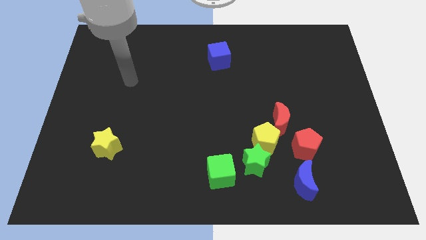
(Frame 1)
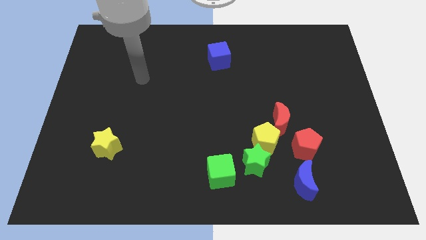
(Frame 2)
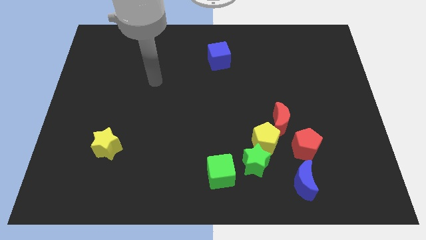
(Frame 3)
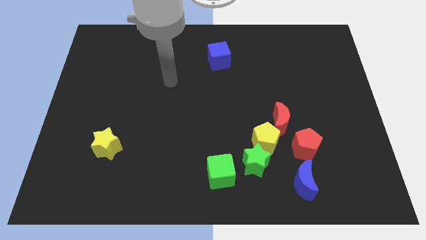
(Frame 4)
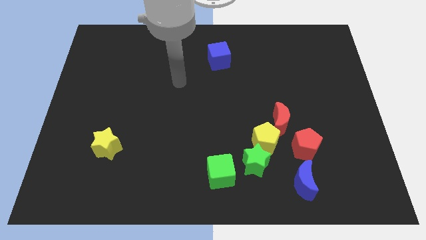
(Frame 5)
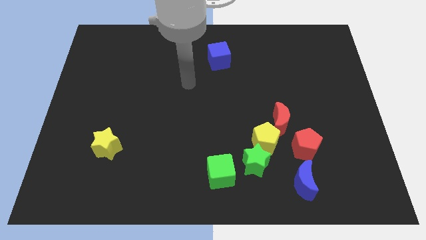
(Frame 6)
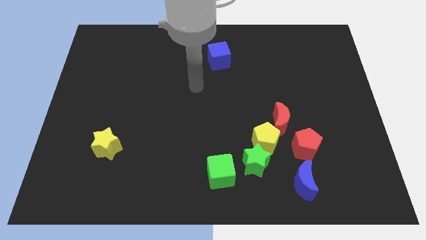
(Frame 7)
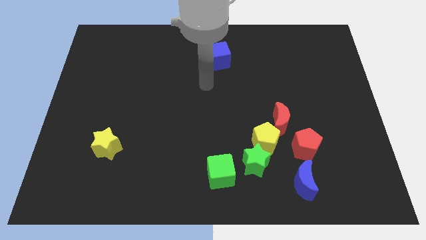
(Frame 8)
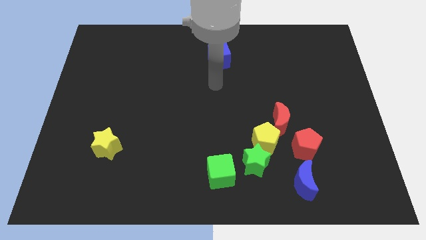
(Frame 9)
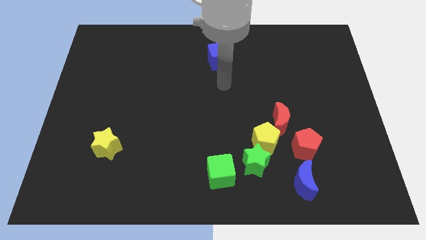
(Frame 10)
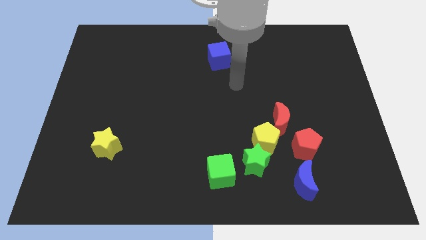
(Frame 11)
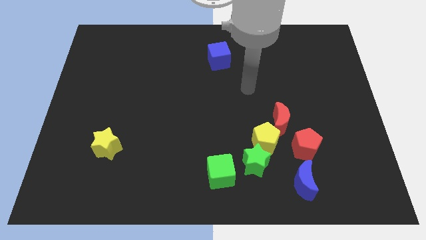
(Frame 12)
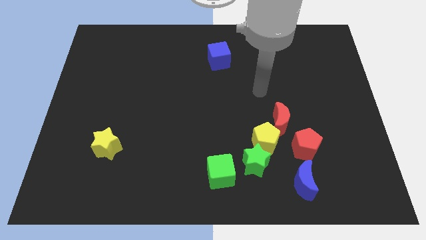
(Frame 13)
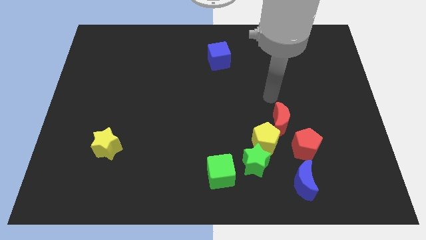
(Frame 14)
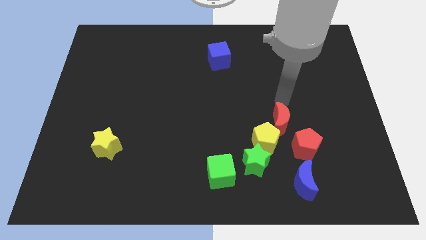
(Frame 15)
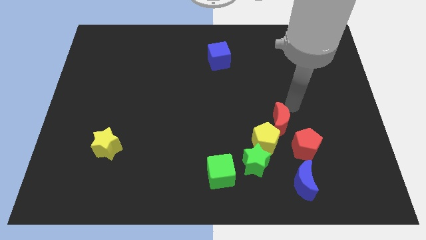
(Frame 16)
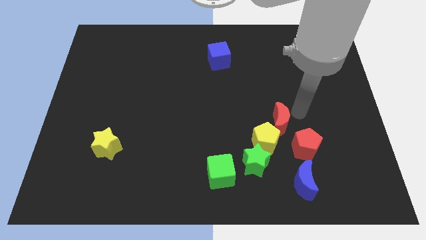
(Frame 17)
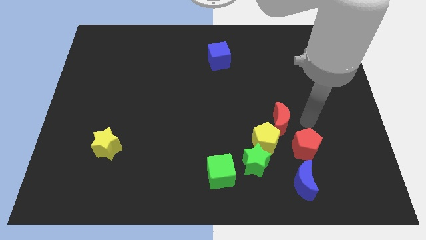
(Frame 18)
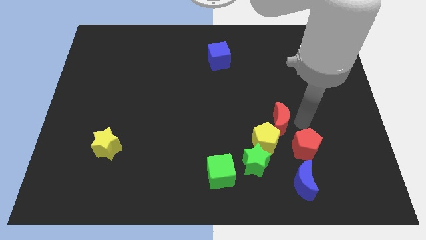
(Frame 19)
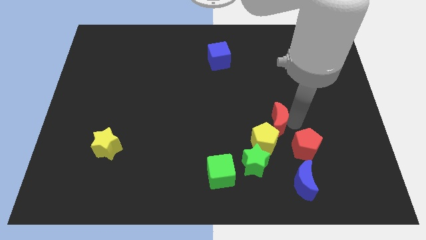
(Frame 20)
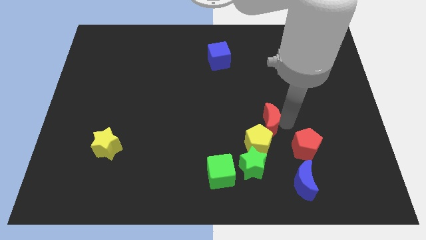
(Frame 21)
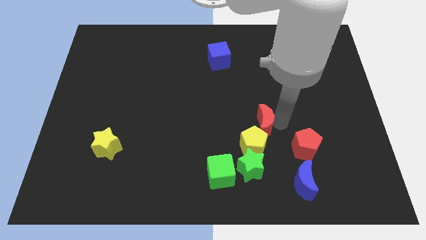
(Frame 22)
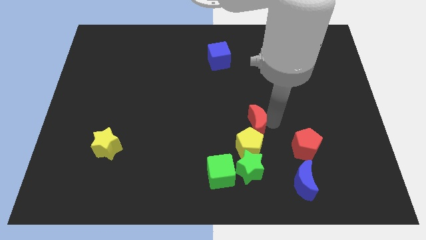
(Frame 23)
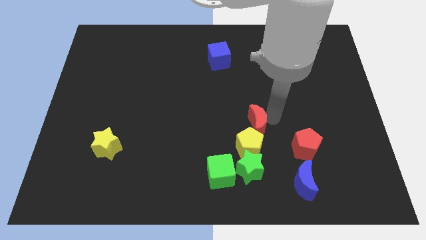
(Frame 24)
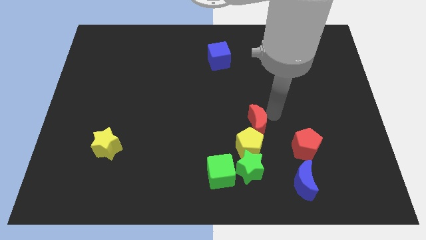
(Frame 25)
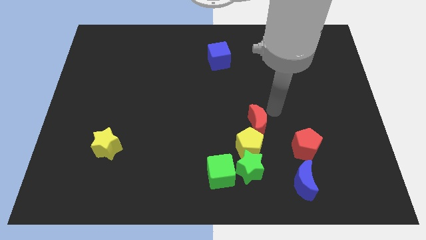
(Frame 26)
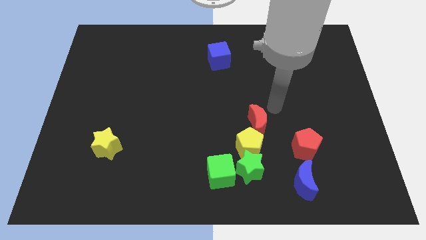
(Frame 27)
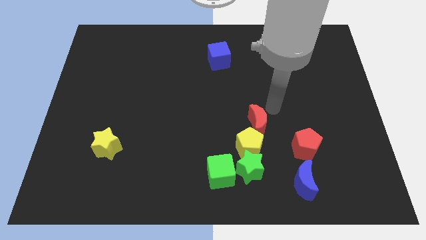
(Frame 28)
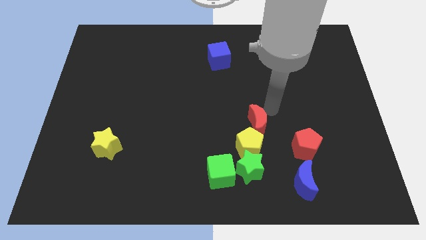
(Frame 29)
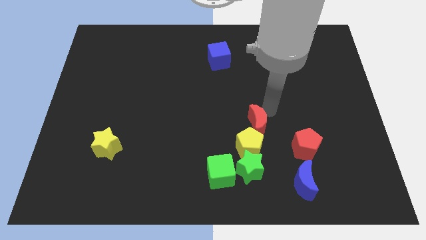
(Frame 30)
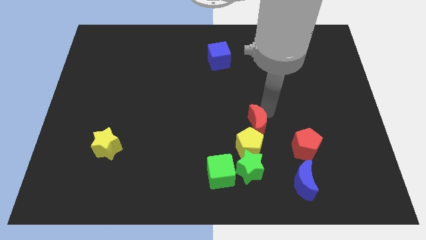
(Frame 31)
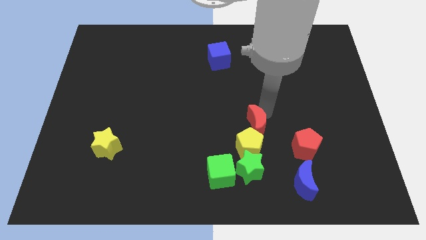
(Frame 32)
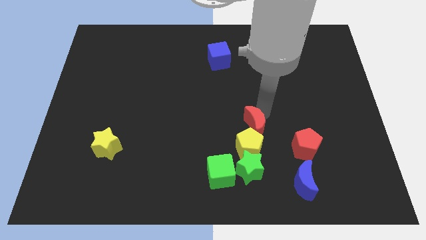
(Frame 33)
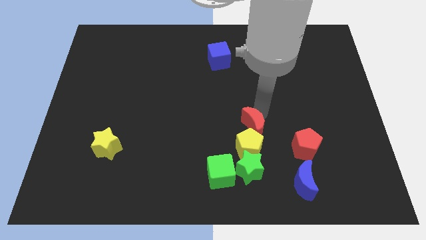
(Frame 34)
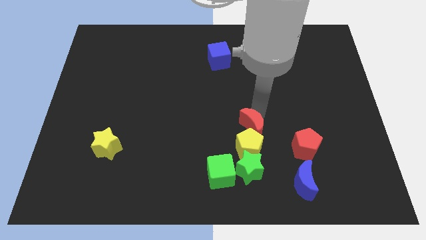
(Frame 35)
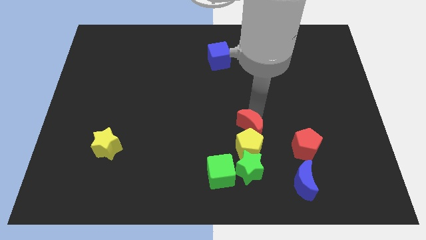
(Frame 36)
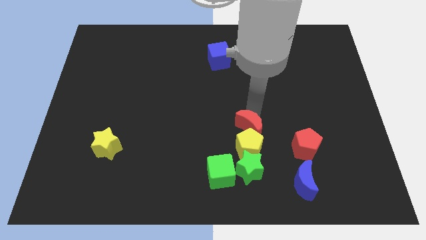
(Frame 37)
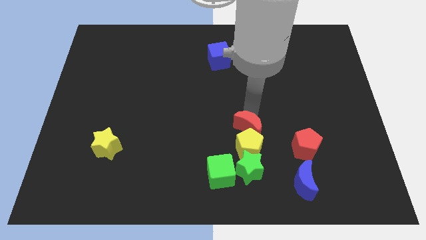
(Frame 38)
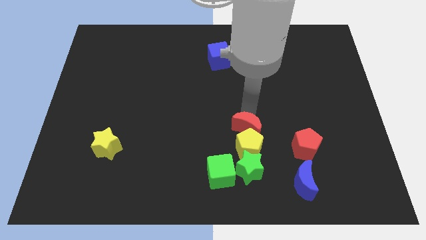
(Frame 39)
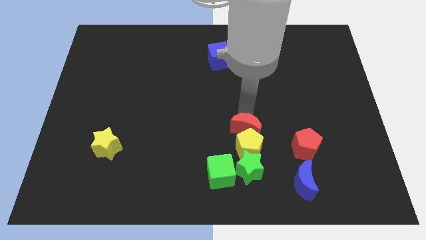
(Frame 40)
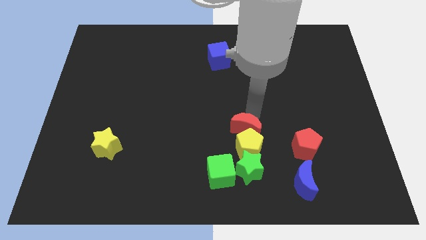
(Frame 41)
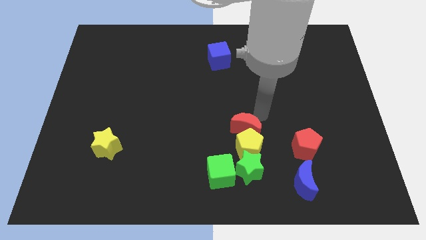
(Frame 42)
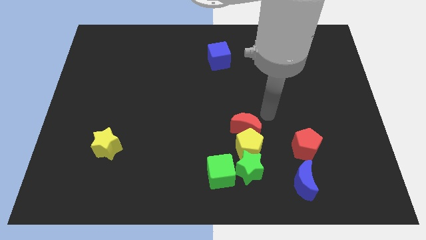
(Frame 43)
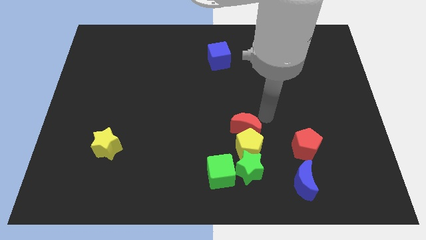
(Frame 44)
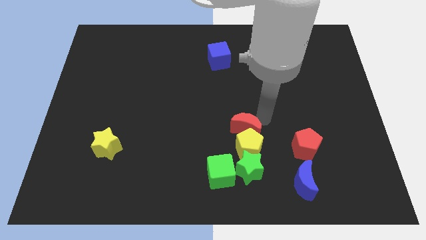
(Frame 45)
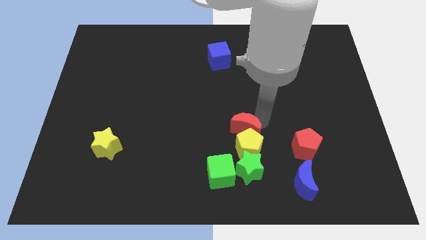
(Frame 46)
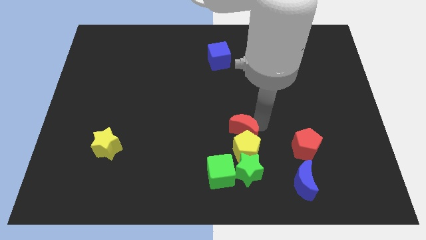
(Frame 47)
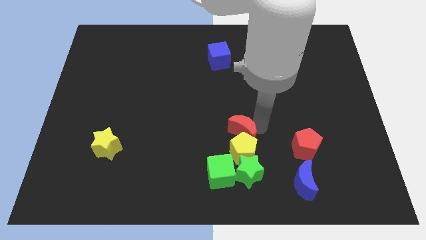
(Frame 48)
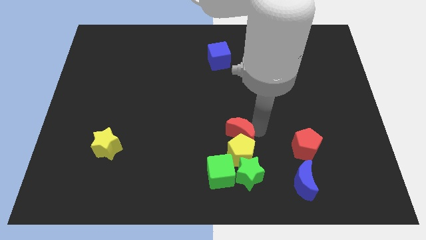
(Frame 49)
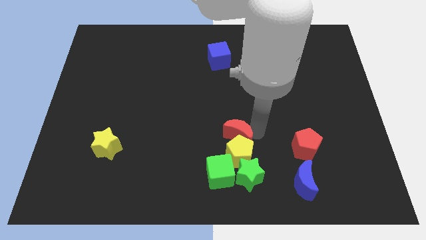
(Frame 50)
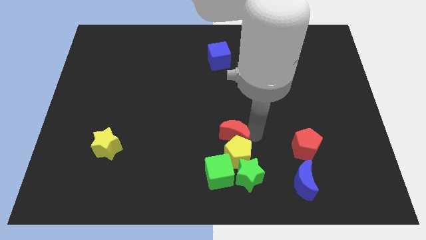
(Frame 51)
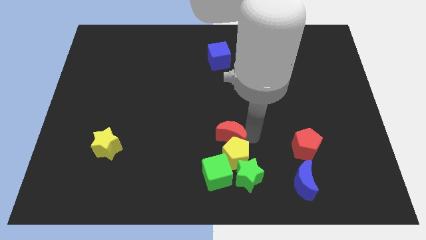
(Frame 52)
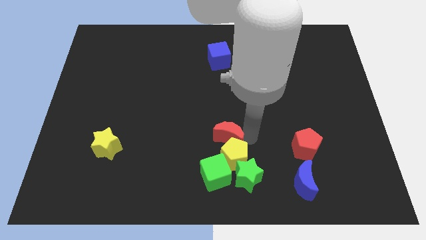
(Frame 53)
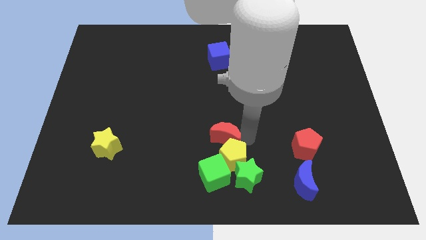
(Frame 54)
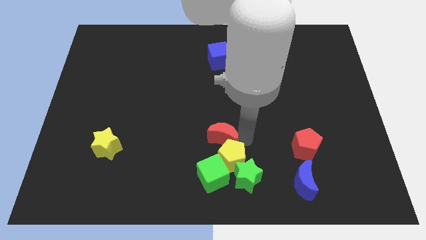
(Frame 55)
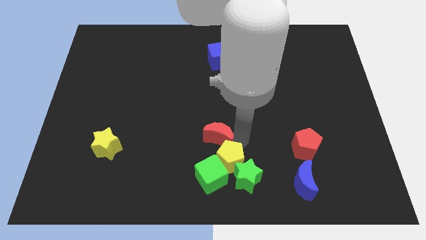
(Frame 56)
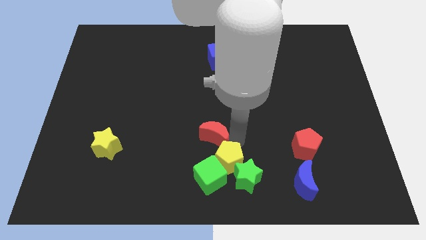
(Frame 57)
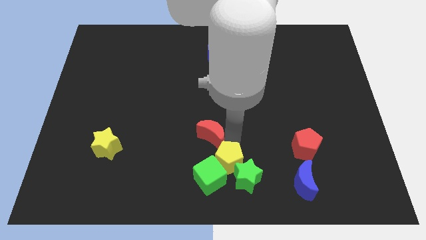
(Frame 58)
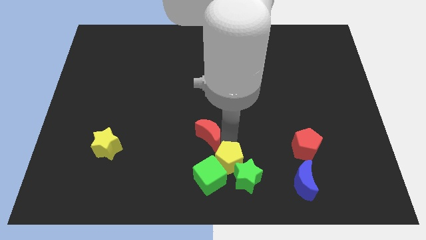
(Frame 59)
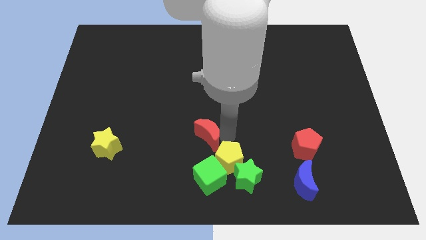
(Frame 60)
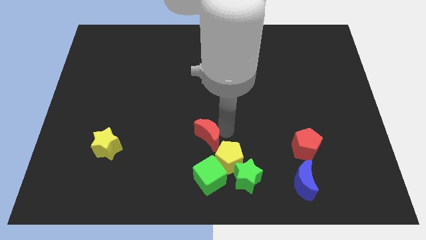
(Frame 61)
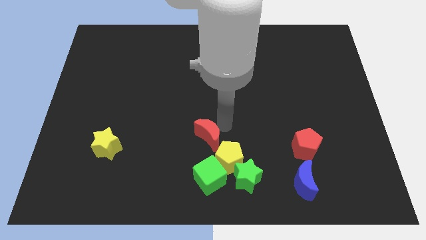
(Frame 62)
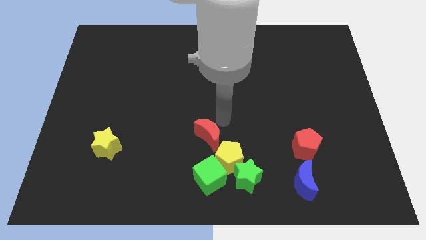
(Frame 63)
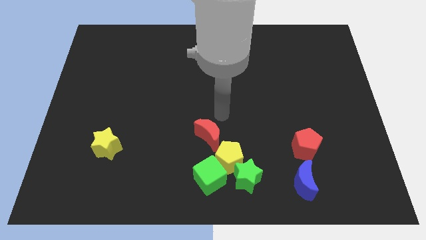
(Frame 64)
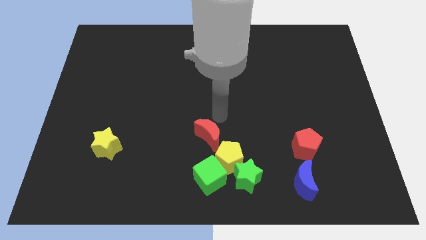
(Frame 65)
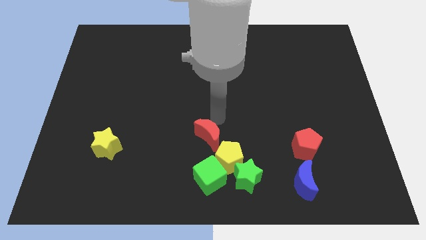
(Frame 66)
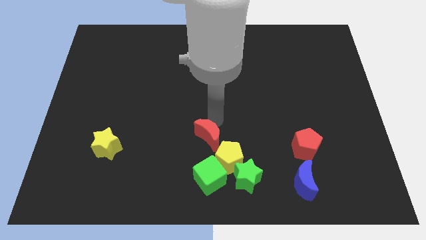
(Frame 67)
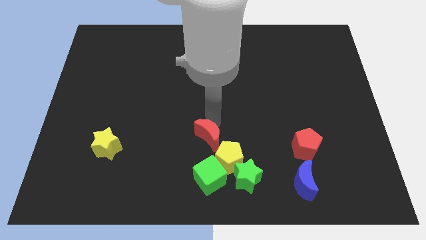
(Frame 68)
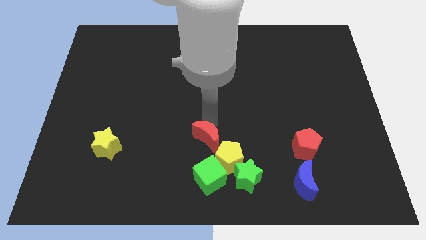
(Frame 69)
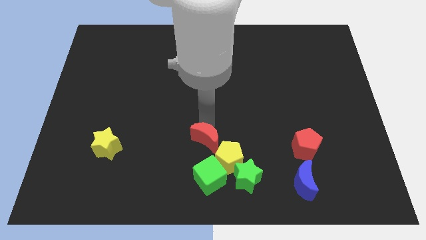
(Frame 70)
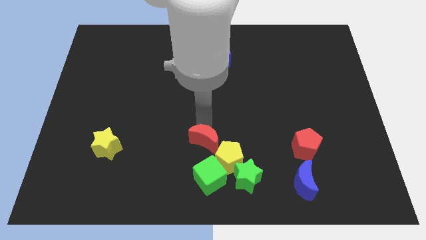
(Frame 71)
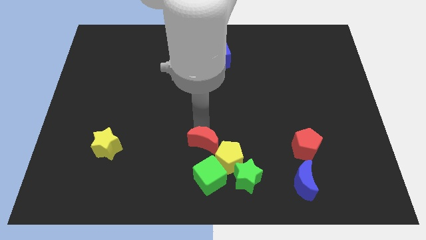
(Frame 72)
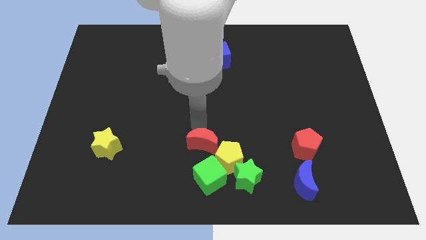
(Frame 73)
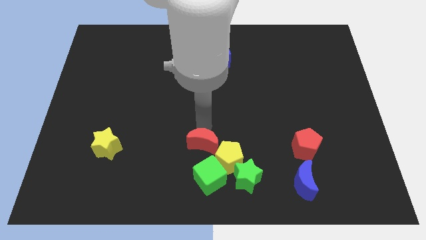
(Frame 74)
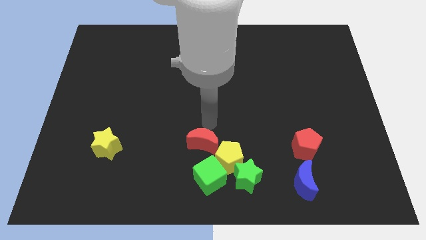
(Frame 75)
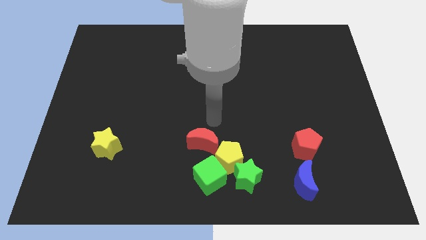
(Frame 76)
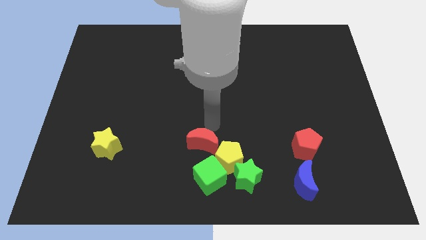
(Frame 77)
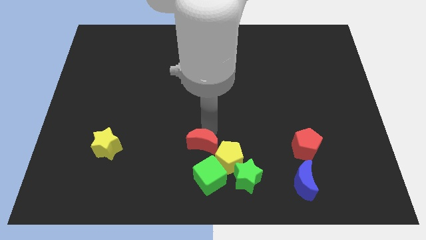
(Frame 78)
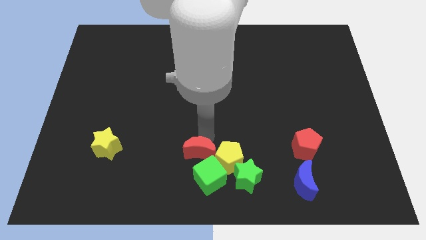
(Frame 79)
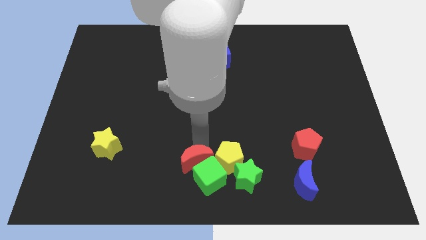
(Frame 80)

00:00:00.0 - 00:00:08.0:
push the red moon to the bottom
